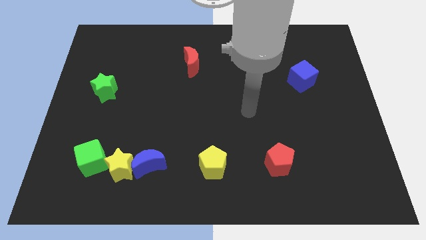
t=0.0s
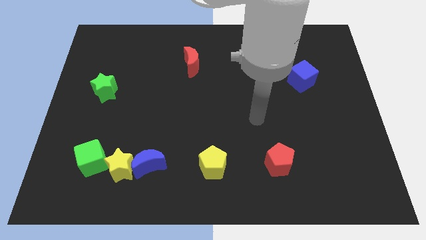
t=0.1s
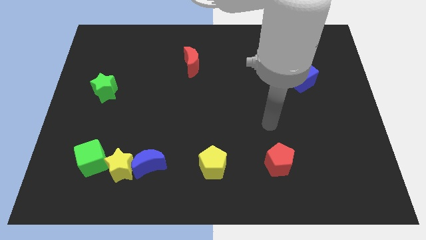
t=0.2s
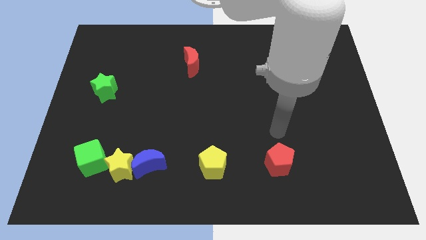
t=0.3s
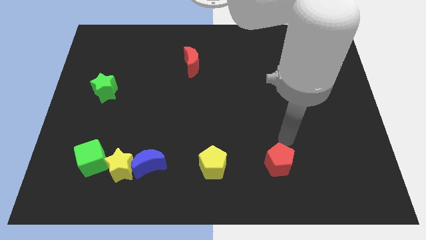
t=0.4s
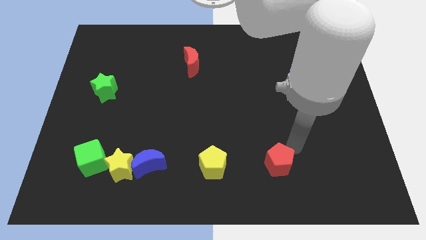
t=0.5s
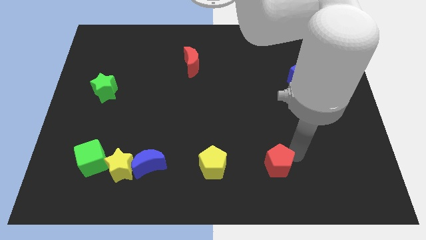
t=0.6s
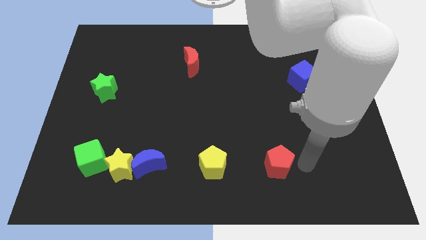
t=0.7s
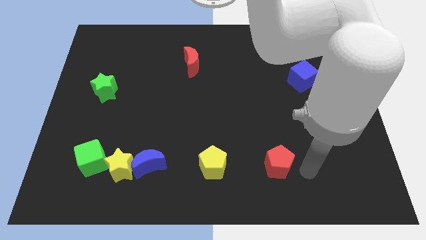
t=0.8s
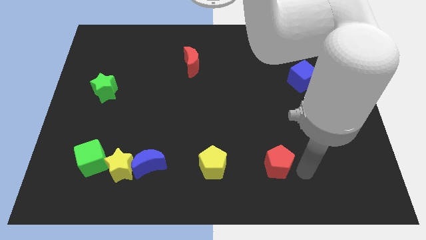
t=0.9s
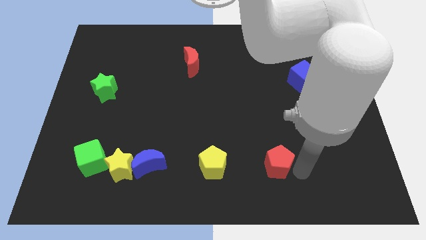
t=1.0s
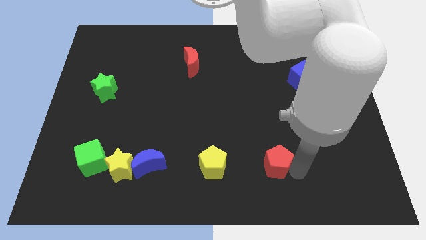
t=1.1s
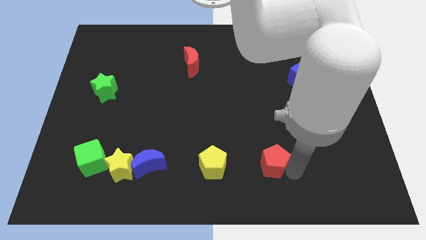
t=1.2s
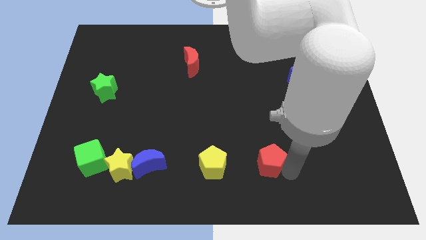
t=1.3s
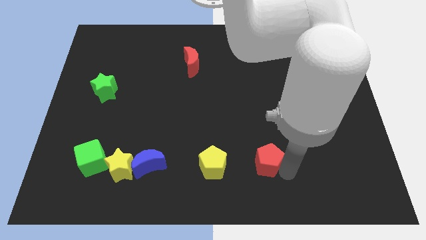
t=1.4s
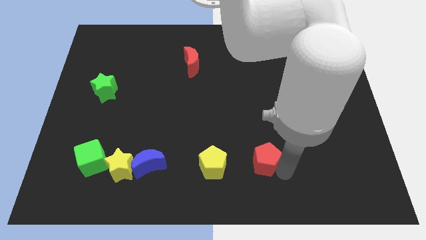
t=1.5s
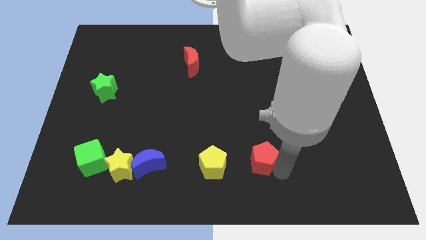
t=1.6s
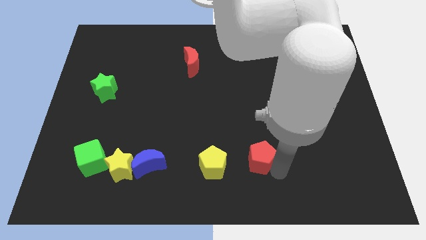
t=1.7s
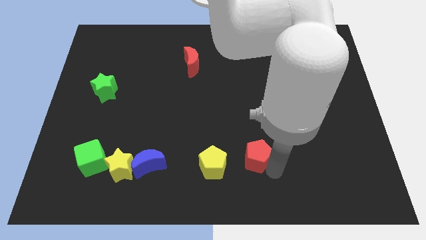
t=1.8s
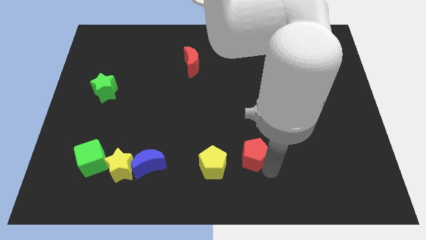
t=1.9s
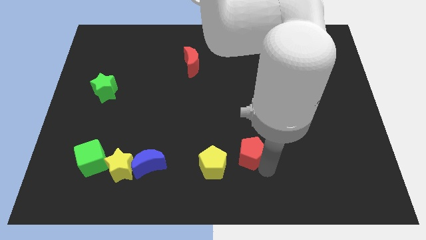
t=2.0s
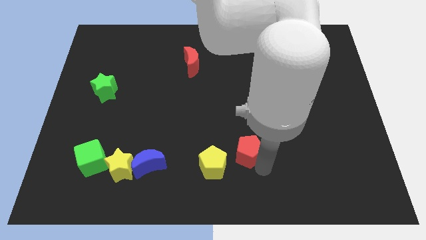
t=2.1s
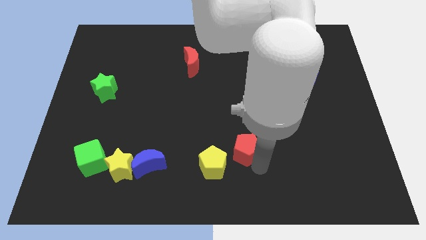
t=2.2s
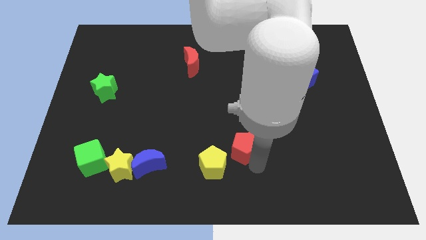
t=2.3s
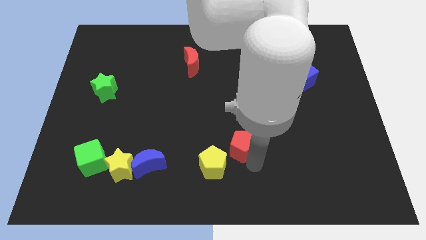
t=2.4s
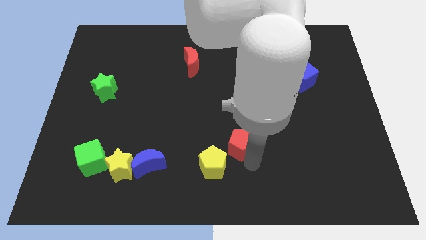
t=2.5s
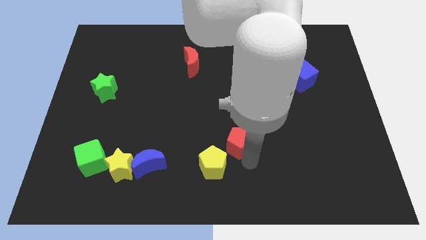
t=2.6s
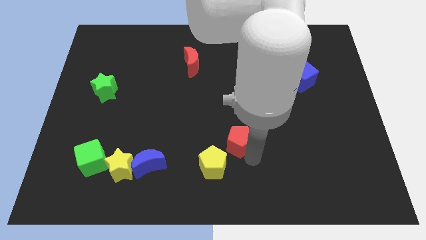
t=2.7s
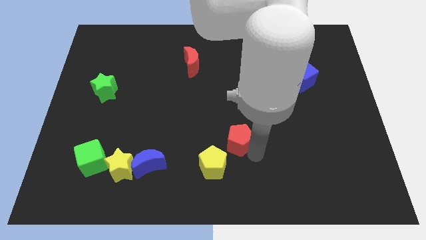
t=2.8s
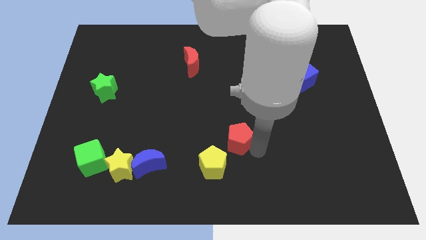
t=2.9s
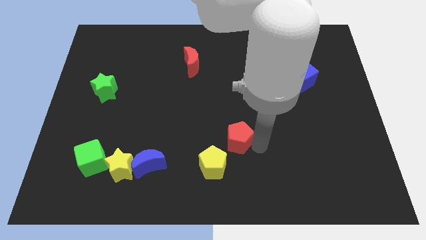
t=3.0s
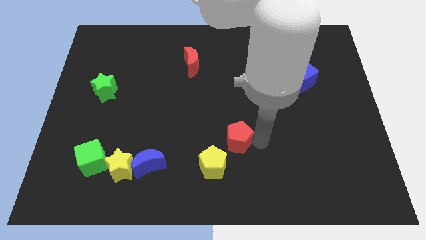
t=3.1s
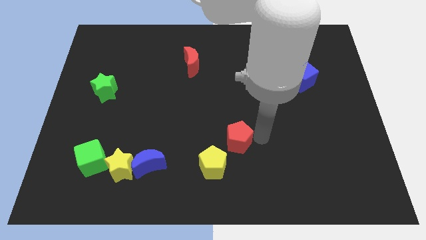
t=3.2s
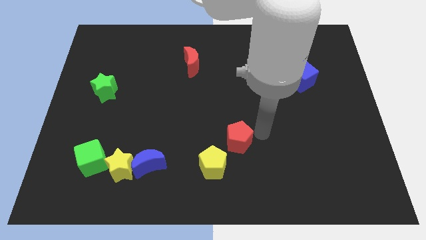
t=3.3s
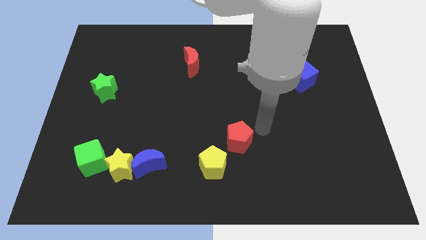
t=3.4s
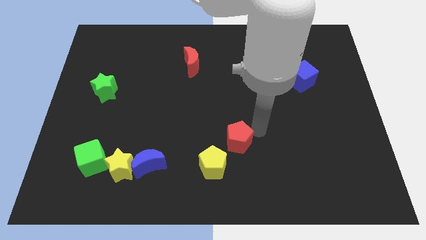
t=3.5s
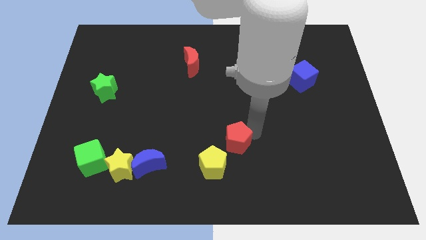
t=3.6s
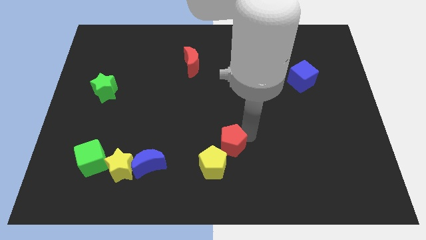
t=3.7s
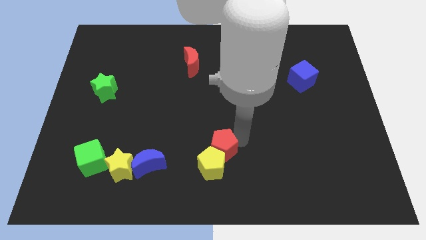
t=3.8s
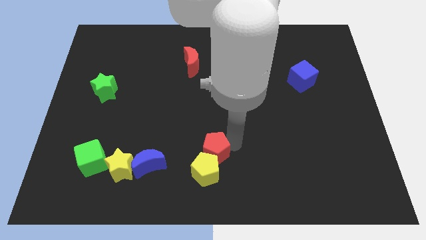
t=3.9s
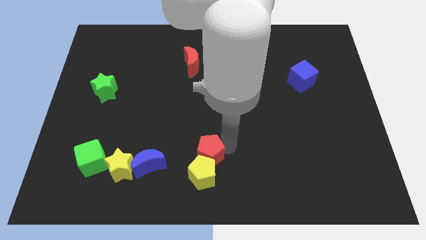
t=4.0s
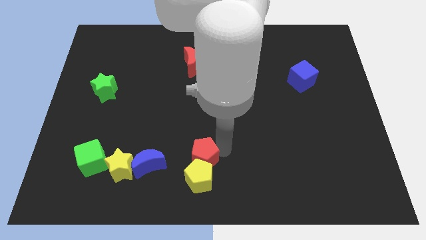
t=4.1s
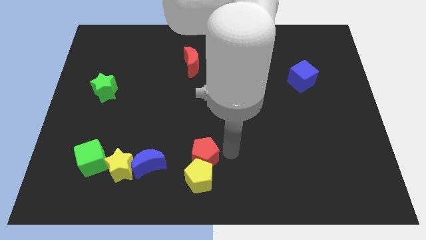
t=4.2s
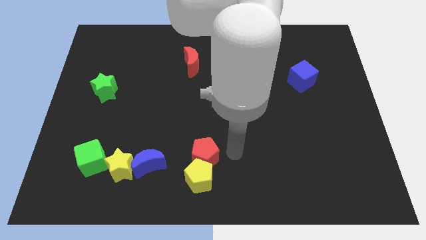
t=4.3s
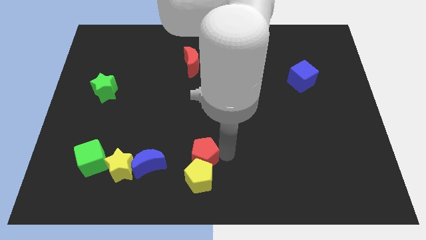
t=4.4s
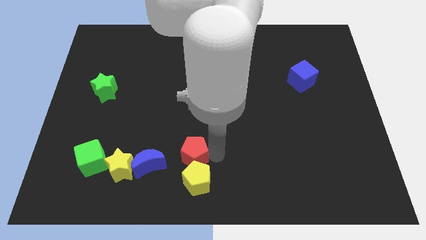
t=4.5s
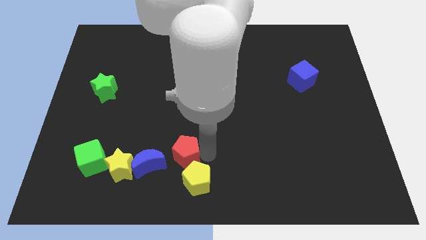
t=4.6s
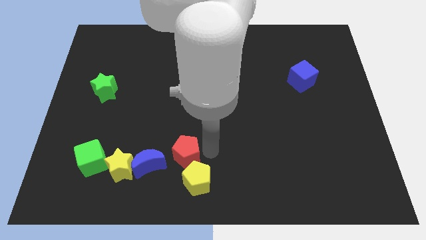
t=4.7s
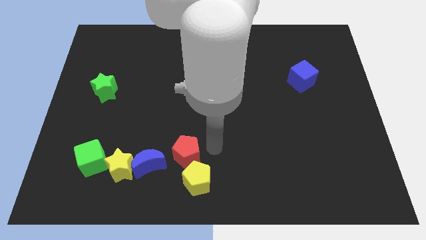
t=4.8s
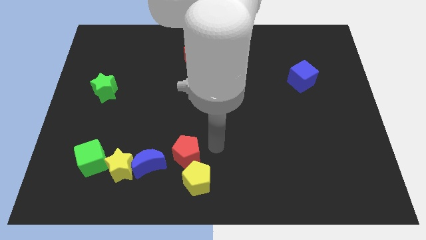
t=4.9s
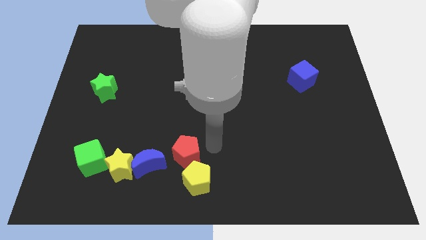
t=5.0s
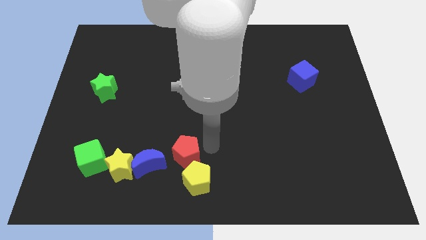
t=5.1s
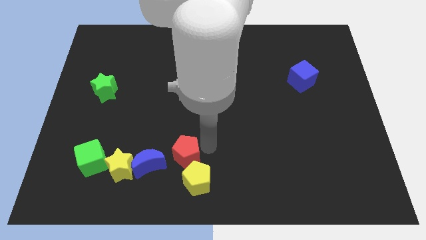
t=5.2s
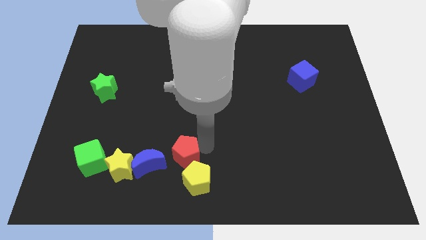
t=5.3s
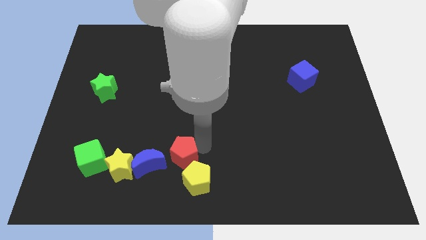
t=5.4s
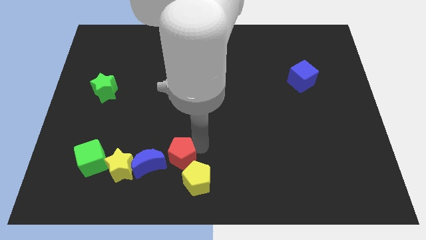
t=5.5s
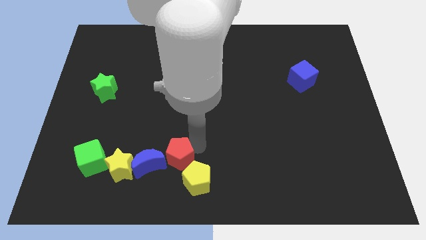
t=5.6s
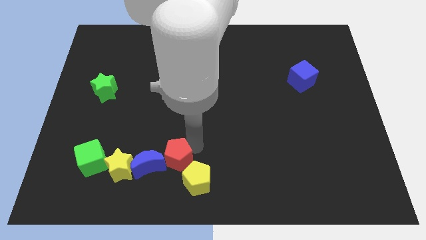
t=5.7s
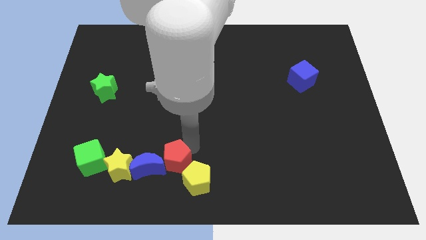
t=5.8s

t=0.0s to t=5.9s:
move the red pentagon close to the blue moon
